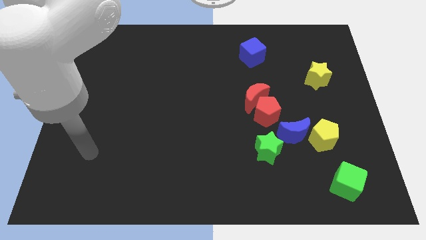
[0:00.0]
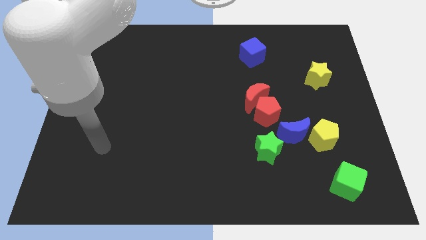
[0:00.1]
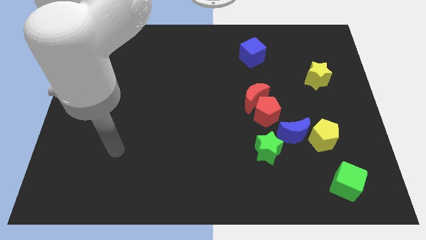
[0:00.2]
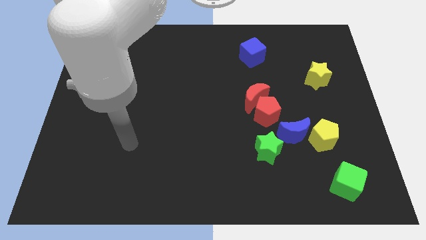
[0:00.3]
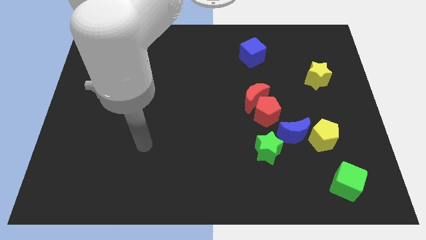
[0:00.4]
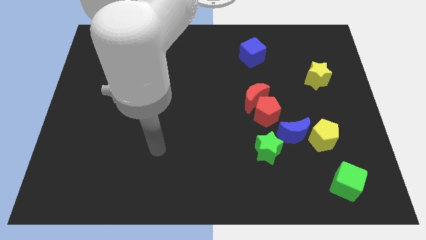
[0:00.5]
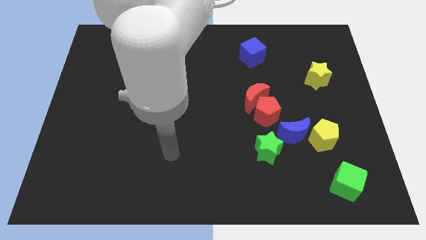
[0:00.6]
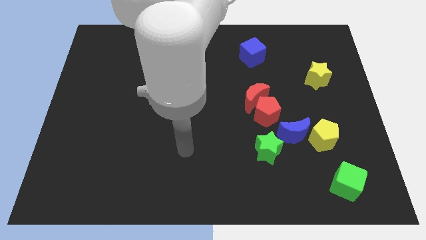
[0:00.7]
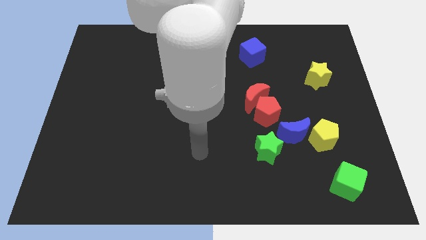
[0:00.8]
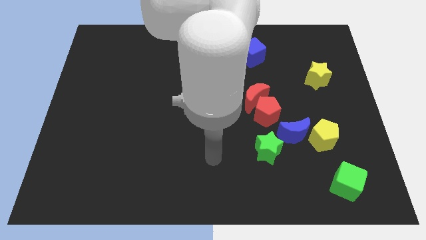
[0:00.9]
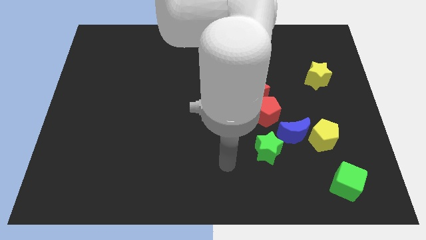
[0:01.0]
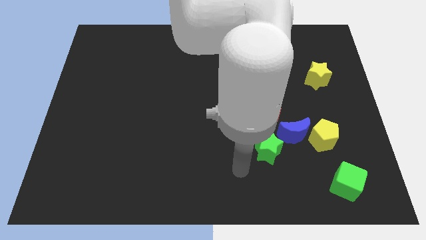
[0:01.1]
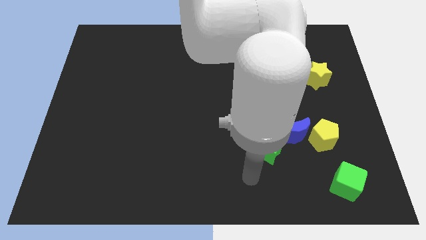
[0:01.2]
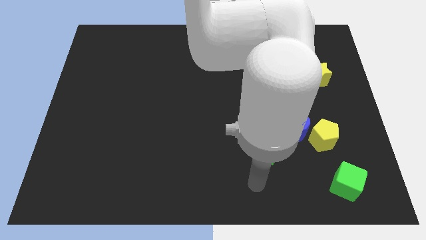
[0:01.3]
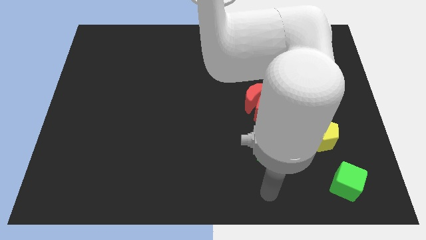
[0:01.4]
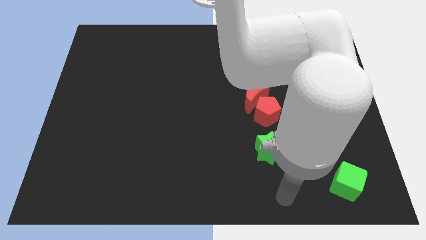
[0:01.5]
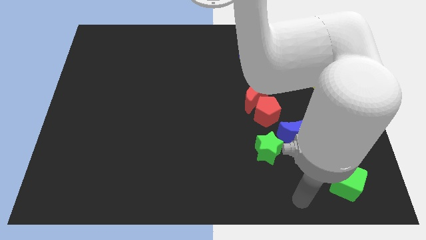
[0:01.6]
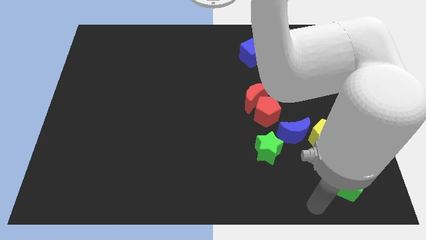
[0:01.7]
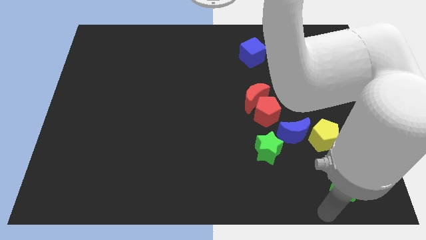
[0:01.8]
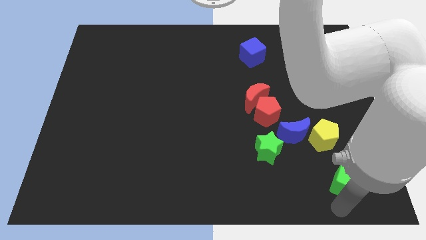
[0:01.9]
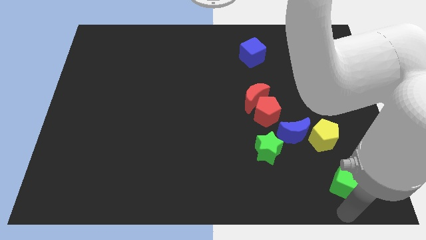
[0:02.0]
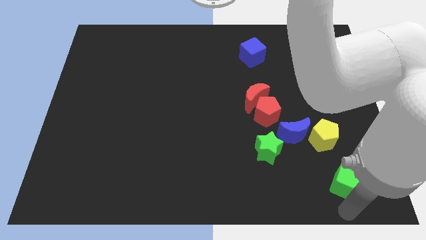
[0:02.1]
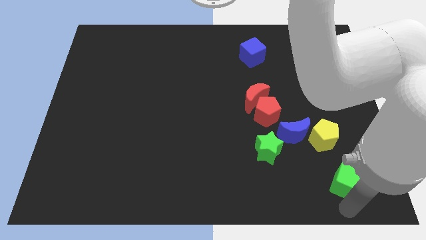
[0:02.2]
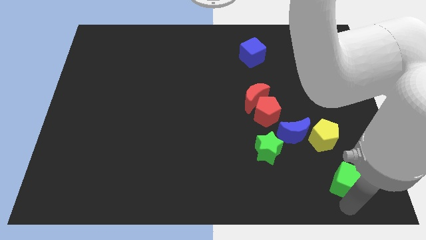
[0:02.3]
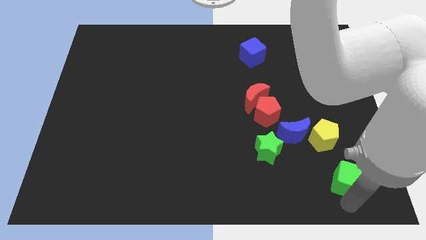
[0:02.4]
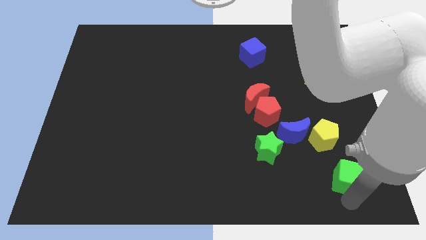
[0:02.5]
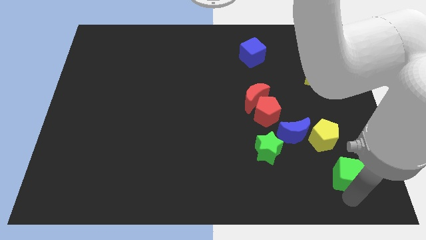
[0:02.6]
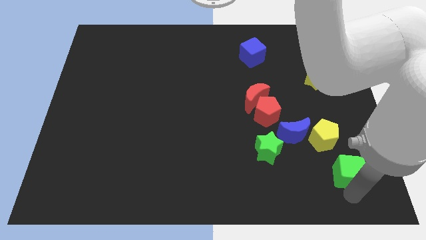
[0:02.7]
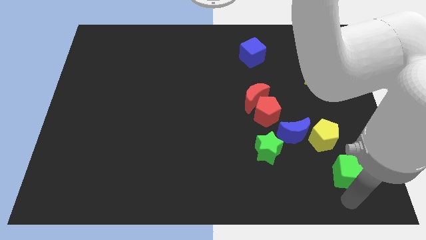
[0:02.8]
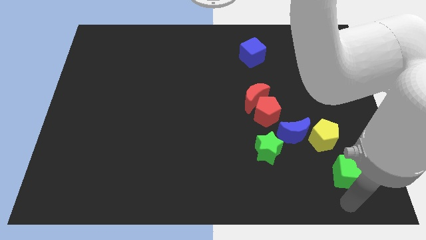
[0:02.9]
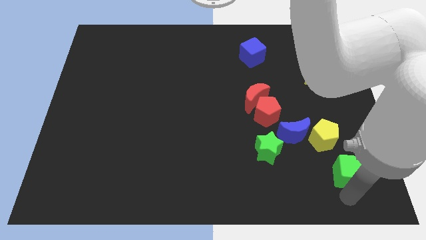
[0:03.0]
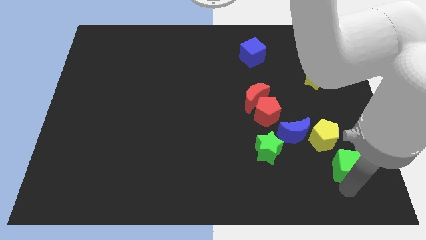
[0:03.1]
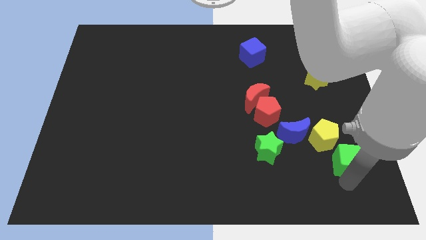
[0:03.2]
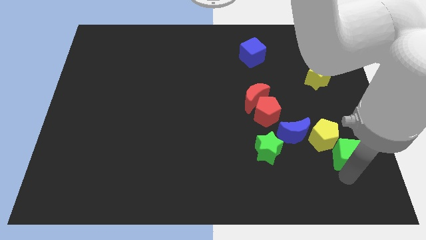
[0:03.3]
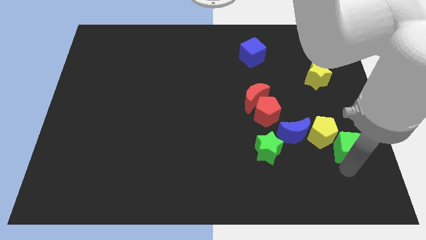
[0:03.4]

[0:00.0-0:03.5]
slightly push the green cube upwards

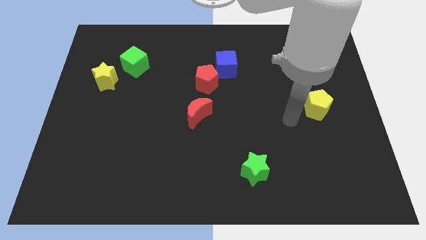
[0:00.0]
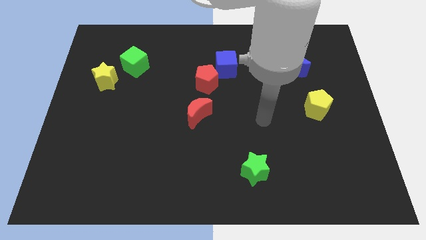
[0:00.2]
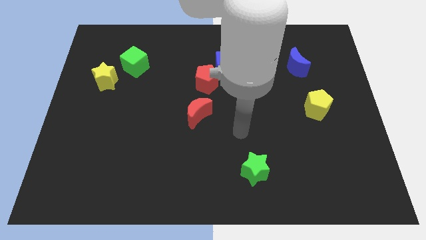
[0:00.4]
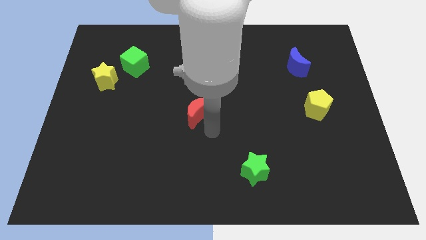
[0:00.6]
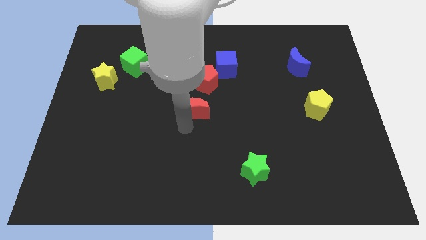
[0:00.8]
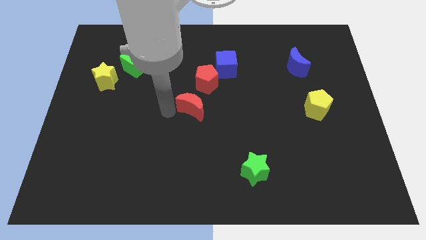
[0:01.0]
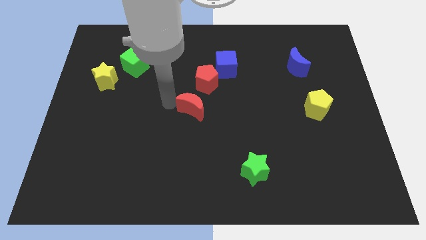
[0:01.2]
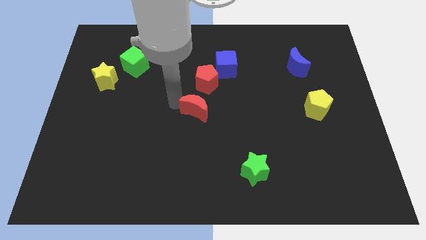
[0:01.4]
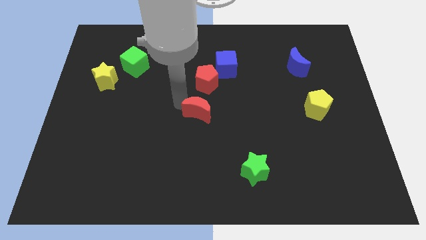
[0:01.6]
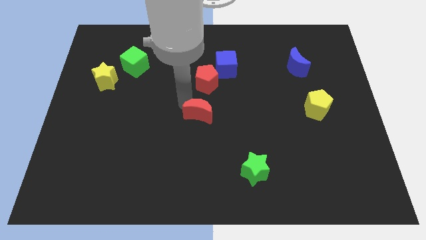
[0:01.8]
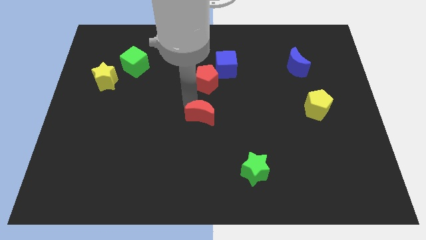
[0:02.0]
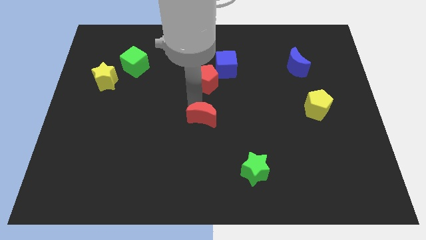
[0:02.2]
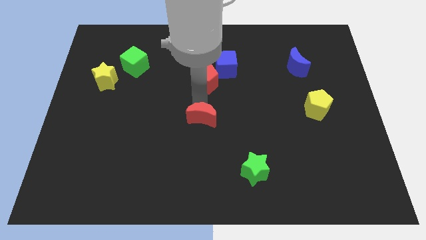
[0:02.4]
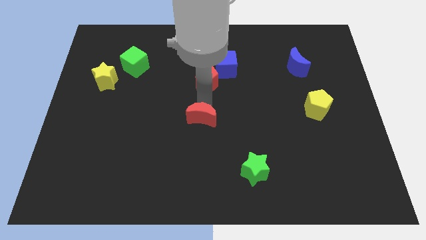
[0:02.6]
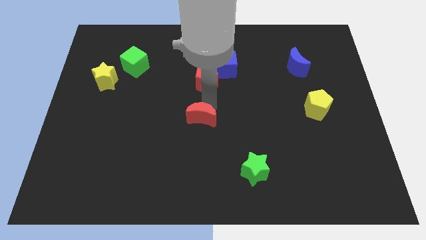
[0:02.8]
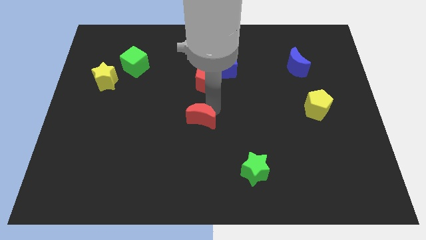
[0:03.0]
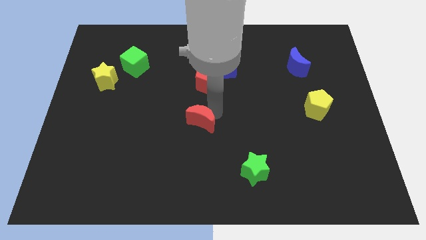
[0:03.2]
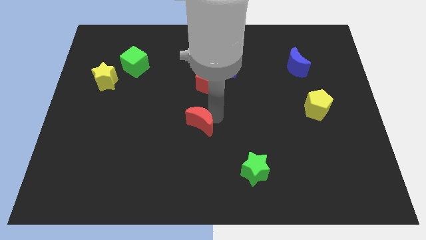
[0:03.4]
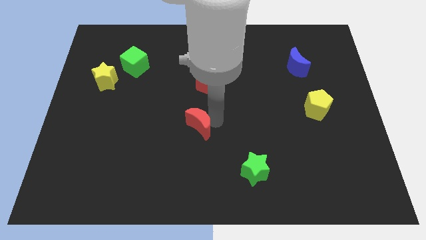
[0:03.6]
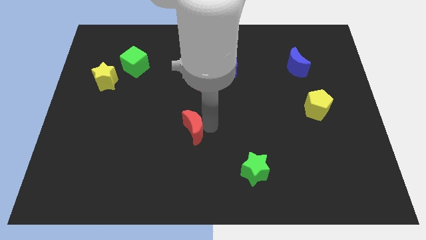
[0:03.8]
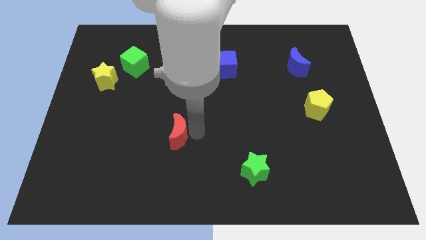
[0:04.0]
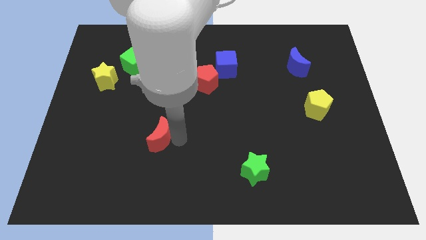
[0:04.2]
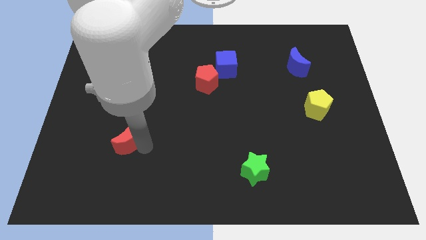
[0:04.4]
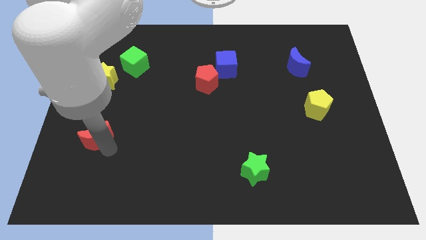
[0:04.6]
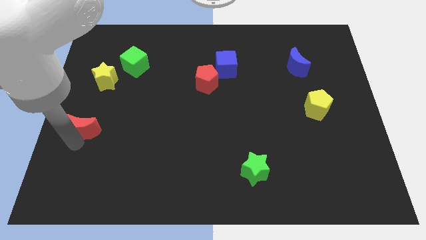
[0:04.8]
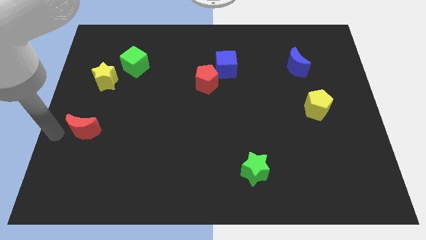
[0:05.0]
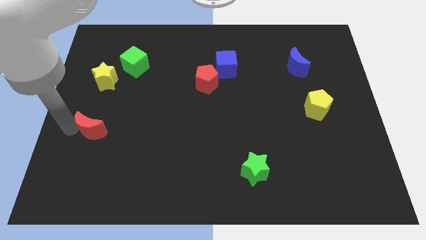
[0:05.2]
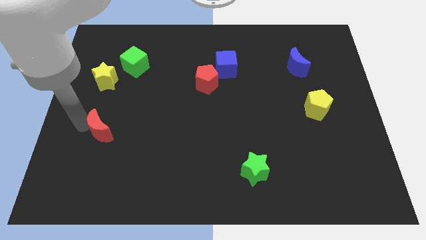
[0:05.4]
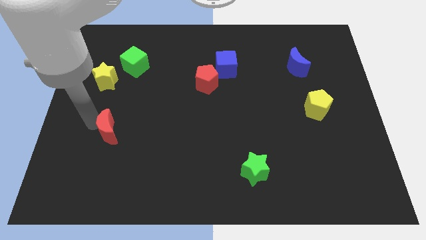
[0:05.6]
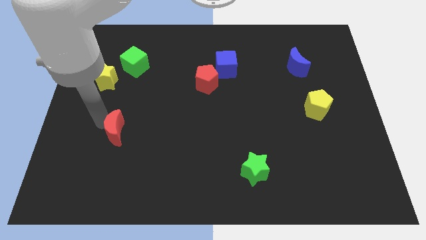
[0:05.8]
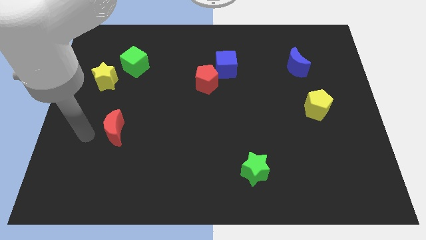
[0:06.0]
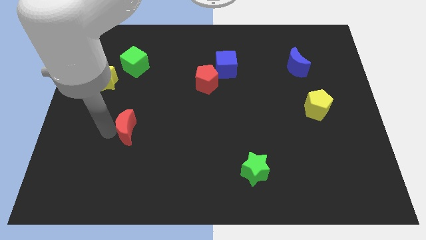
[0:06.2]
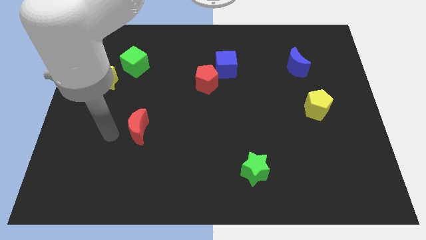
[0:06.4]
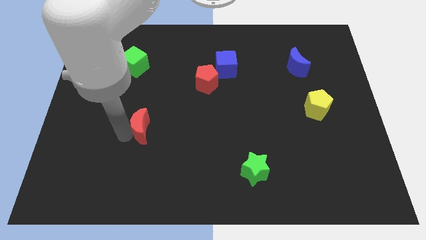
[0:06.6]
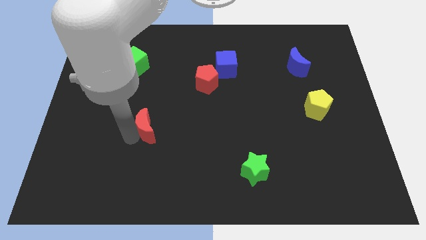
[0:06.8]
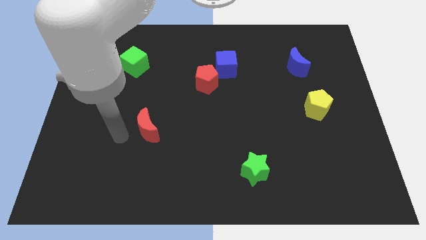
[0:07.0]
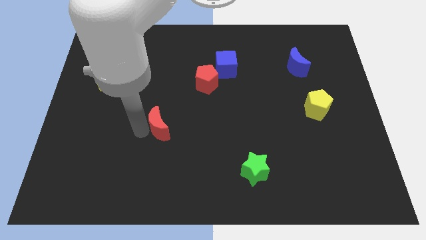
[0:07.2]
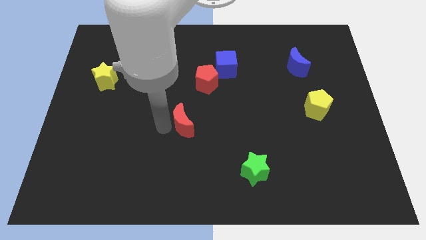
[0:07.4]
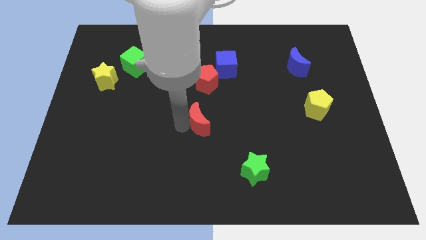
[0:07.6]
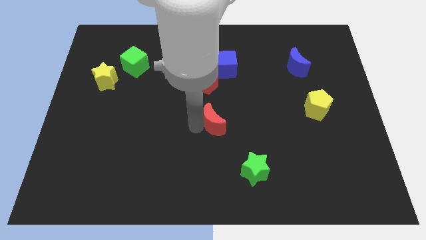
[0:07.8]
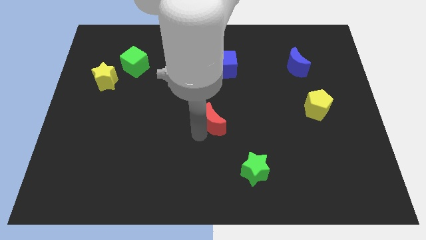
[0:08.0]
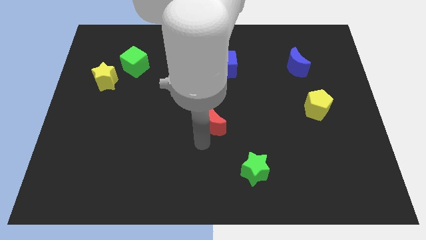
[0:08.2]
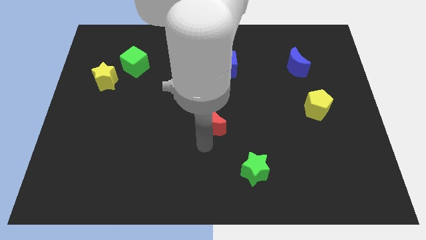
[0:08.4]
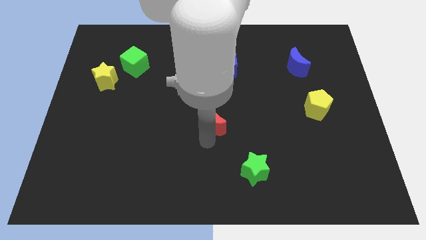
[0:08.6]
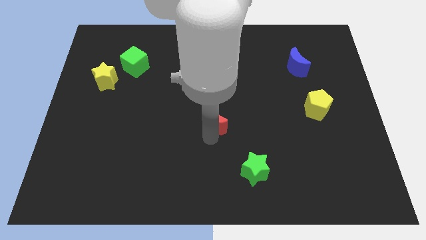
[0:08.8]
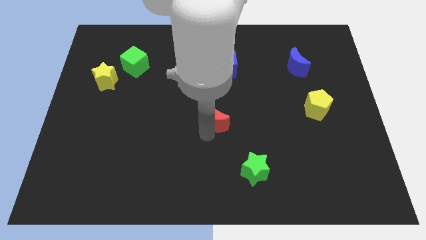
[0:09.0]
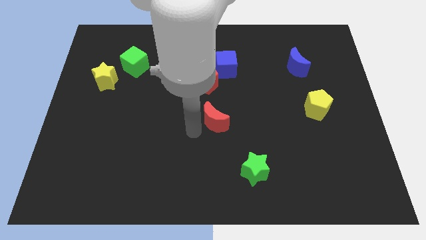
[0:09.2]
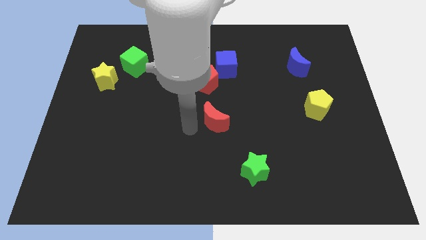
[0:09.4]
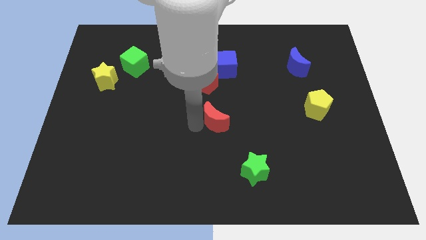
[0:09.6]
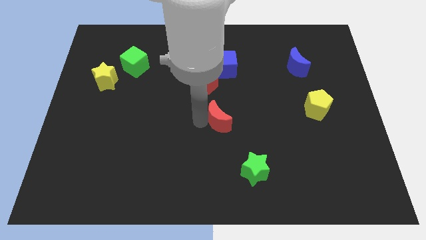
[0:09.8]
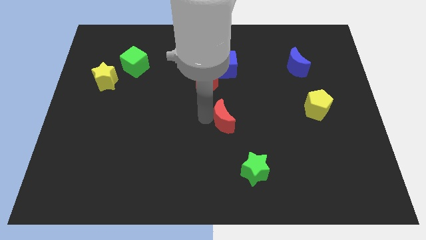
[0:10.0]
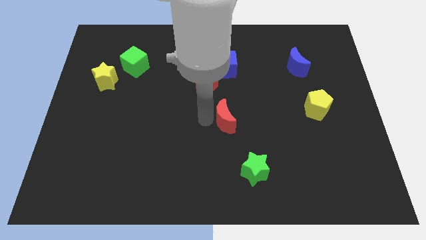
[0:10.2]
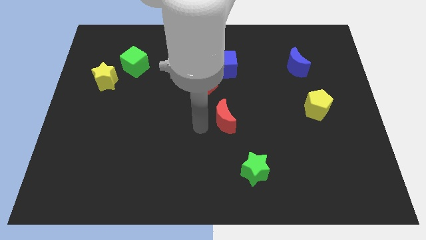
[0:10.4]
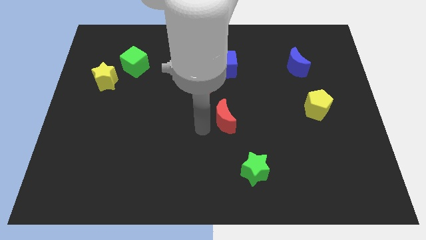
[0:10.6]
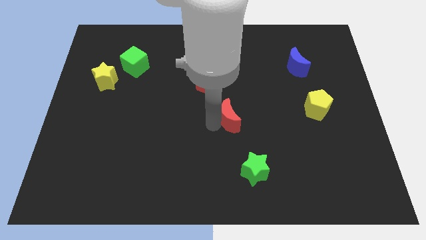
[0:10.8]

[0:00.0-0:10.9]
slide the red moon right a bit
